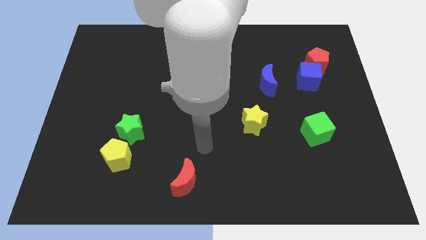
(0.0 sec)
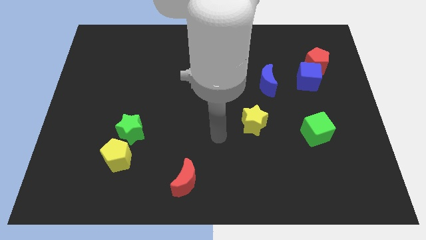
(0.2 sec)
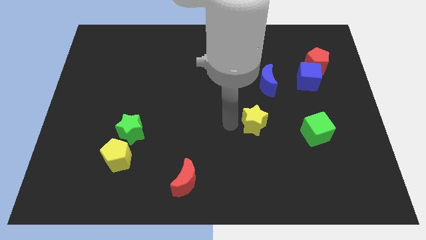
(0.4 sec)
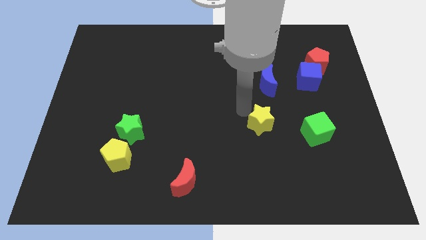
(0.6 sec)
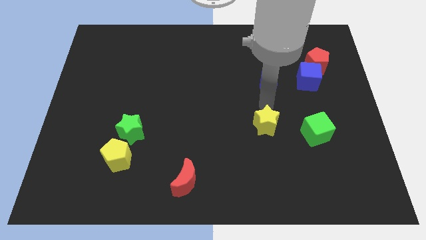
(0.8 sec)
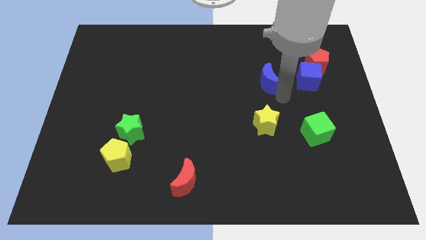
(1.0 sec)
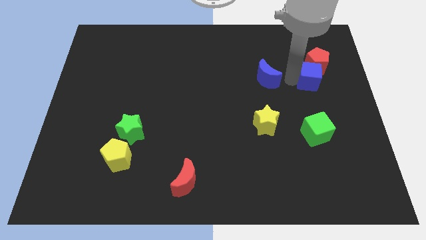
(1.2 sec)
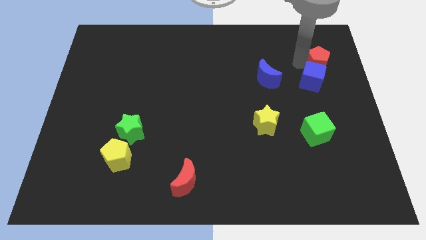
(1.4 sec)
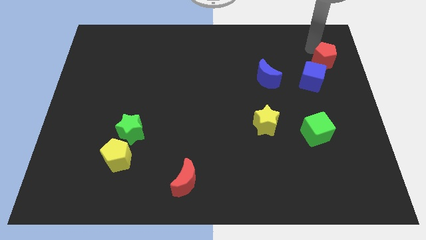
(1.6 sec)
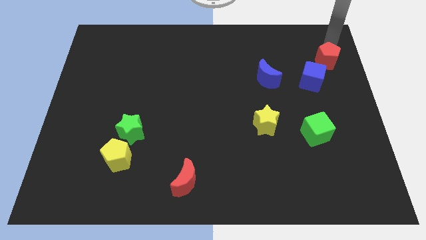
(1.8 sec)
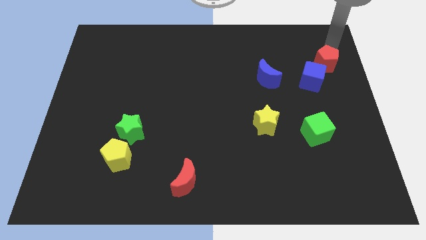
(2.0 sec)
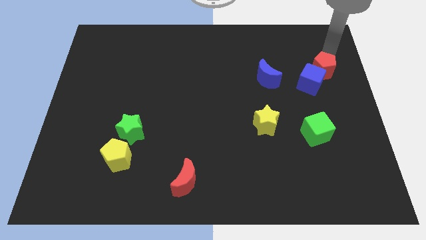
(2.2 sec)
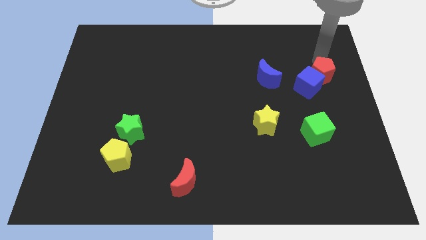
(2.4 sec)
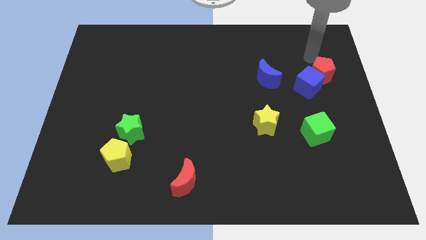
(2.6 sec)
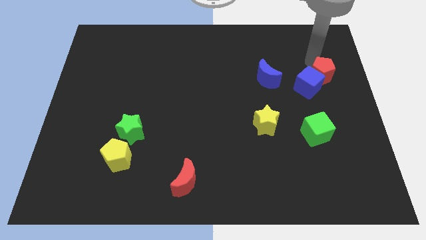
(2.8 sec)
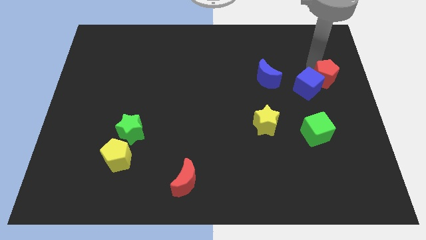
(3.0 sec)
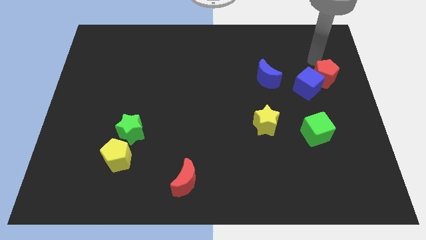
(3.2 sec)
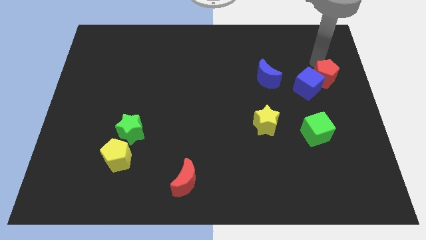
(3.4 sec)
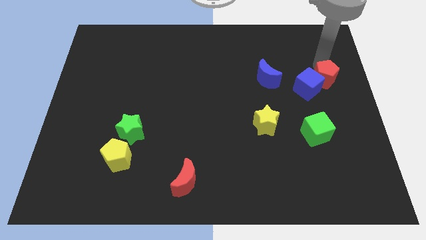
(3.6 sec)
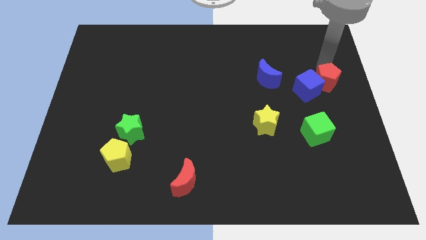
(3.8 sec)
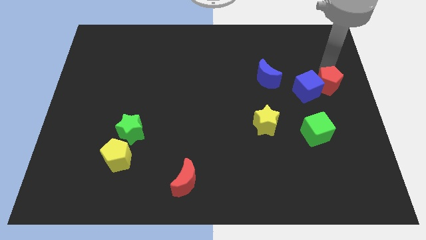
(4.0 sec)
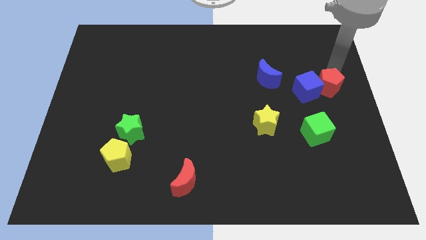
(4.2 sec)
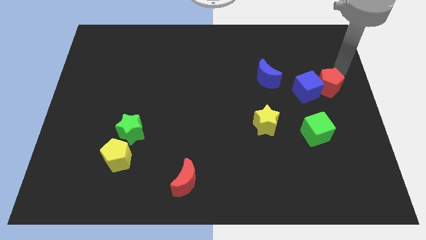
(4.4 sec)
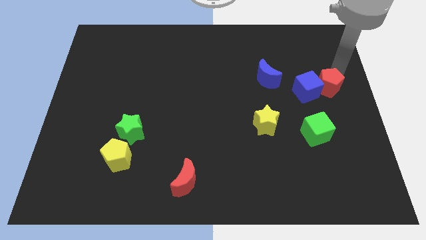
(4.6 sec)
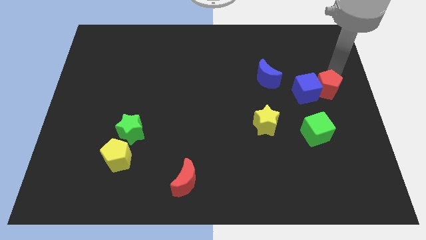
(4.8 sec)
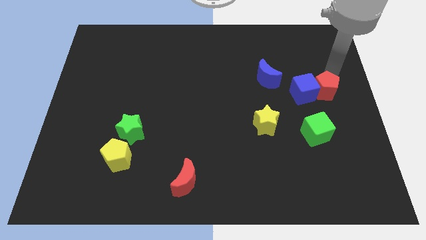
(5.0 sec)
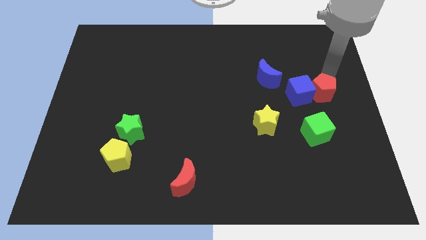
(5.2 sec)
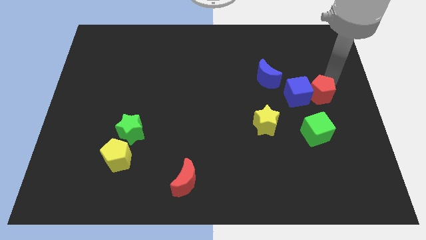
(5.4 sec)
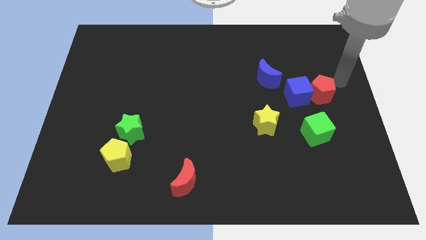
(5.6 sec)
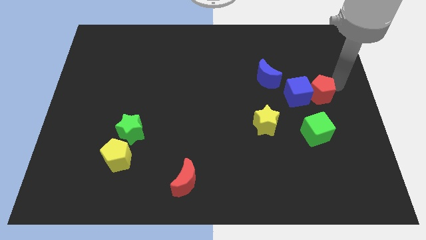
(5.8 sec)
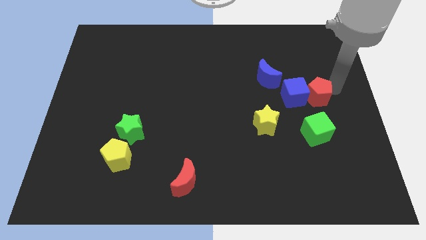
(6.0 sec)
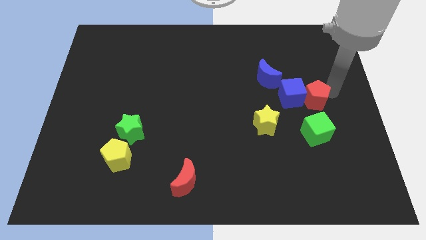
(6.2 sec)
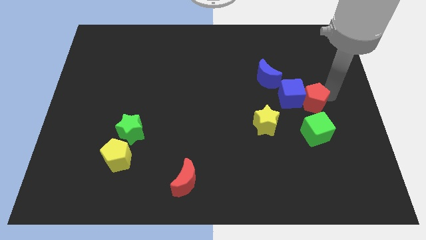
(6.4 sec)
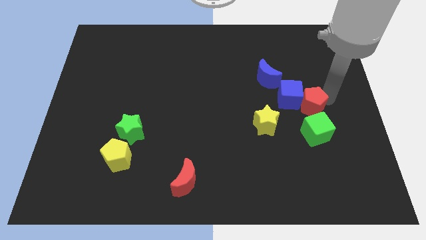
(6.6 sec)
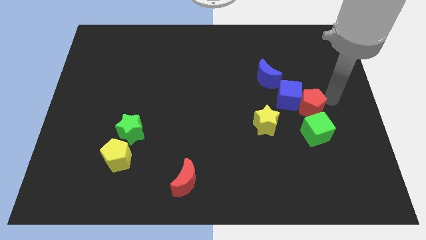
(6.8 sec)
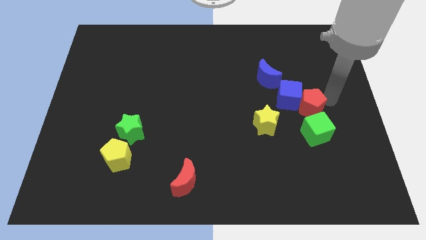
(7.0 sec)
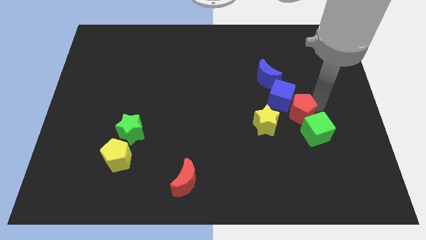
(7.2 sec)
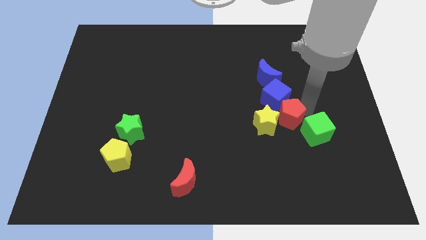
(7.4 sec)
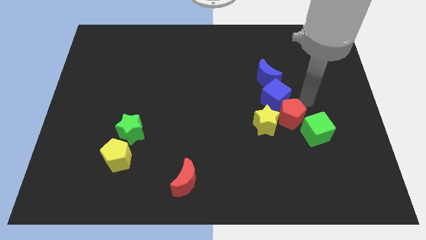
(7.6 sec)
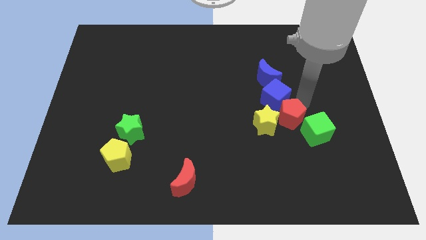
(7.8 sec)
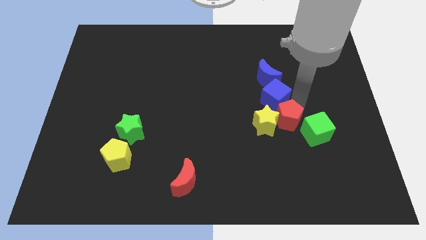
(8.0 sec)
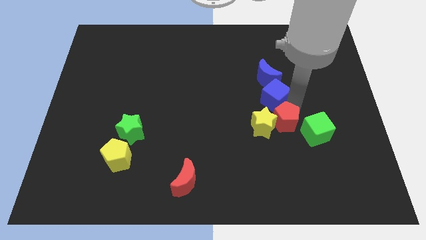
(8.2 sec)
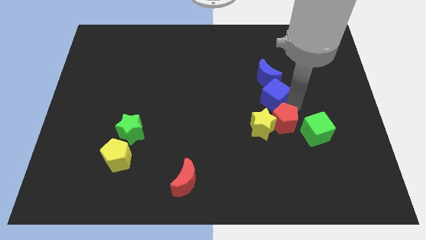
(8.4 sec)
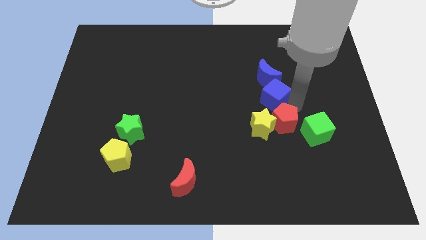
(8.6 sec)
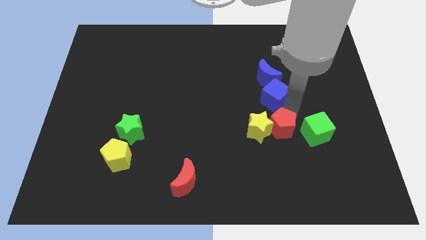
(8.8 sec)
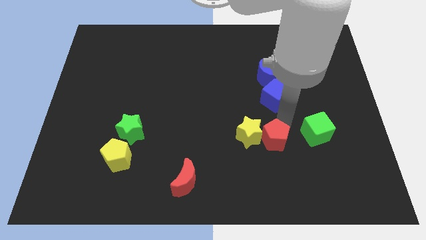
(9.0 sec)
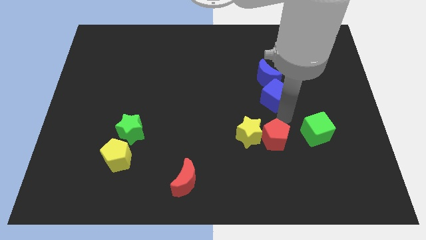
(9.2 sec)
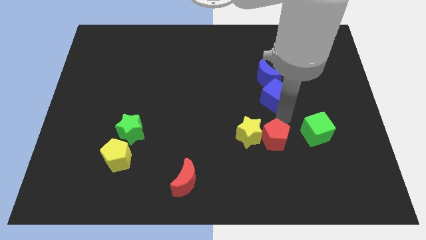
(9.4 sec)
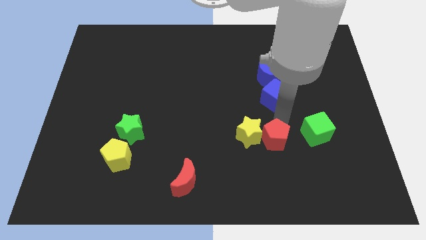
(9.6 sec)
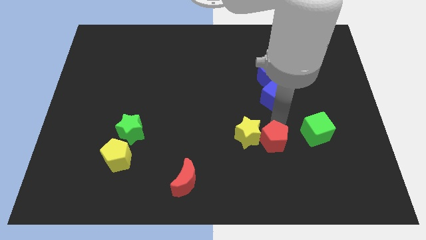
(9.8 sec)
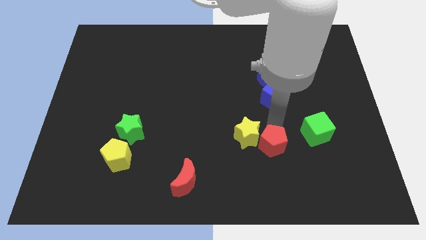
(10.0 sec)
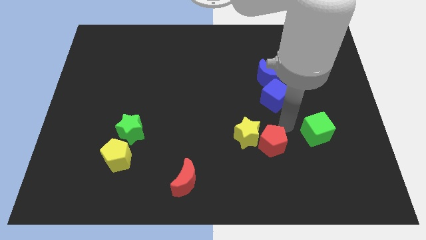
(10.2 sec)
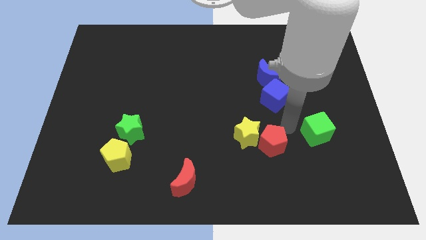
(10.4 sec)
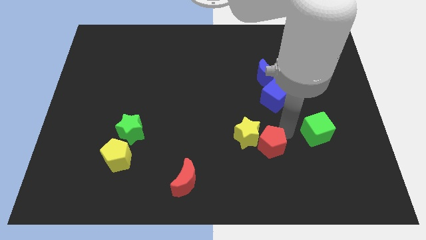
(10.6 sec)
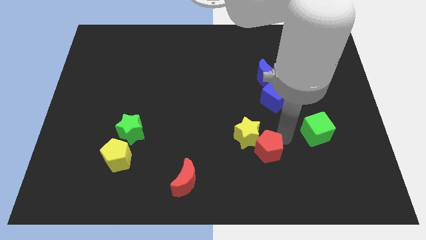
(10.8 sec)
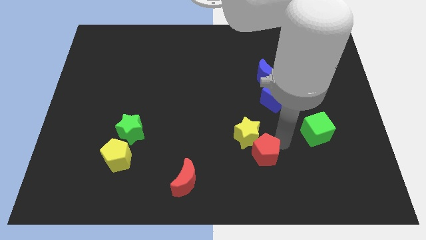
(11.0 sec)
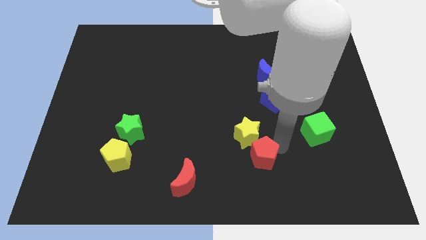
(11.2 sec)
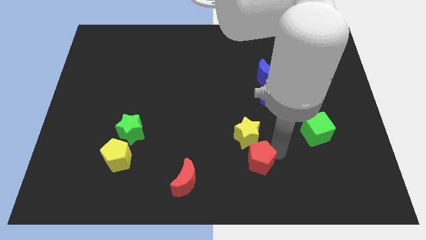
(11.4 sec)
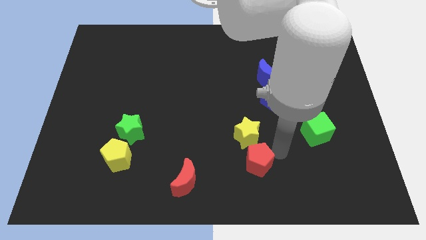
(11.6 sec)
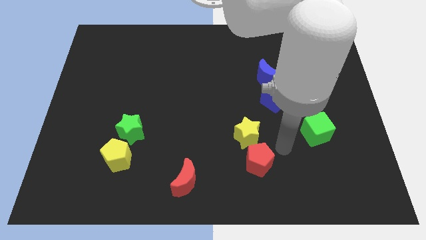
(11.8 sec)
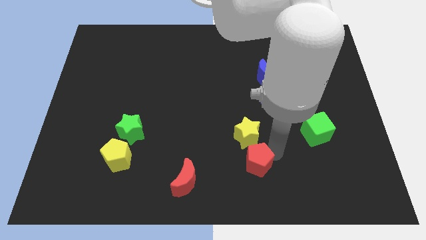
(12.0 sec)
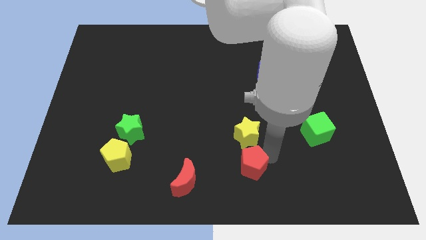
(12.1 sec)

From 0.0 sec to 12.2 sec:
push the red pentagon to the bottom

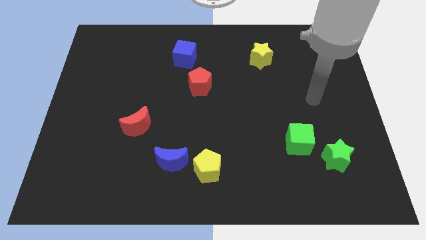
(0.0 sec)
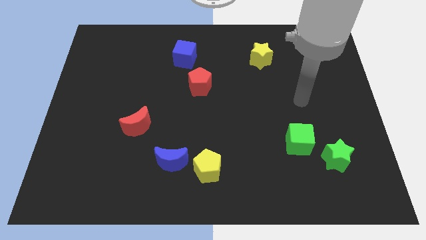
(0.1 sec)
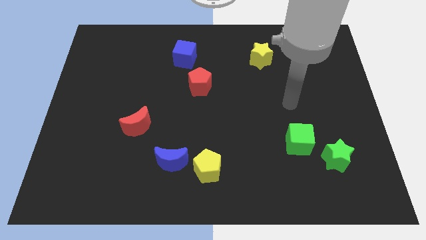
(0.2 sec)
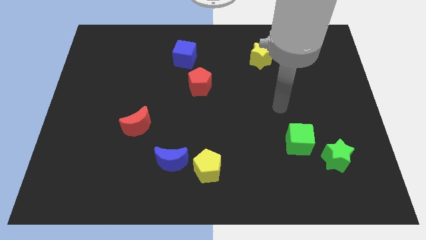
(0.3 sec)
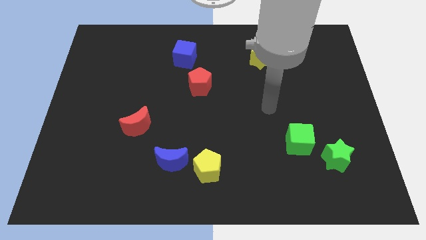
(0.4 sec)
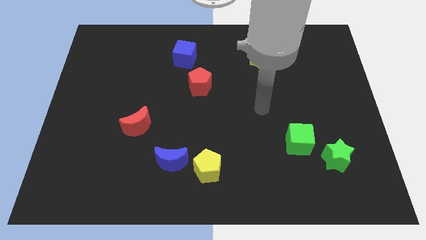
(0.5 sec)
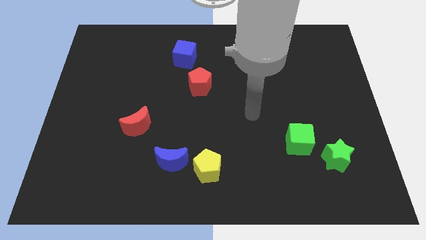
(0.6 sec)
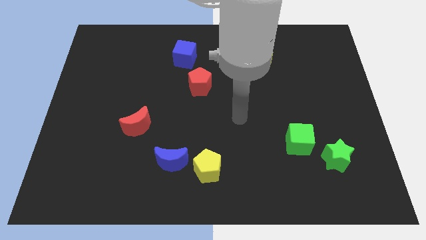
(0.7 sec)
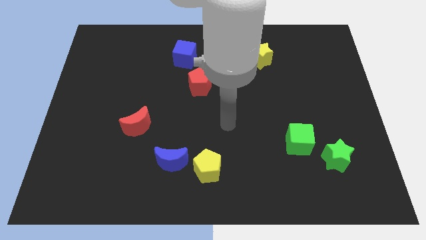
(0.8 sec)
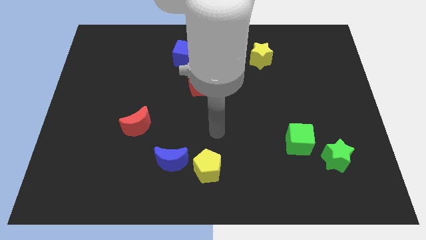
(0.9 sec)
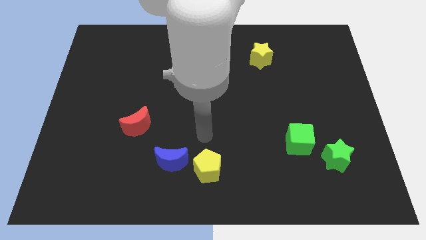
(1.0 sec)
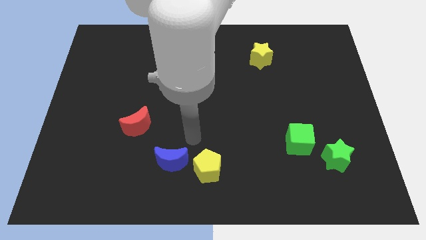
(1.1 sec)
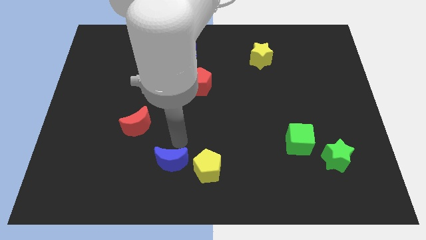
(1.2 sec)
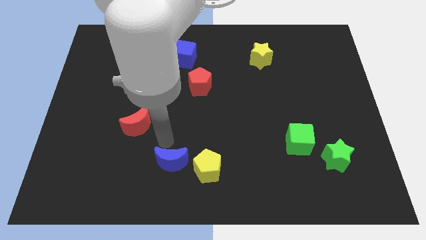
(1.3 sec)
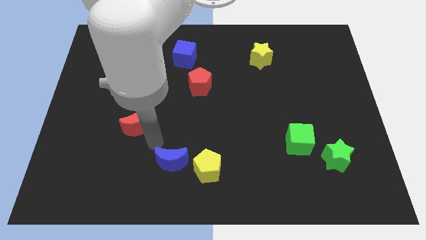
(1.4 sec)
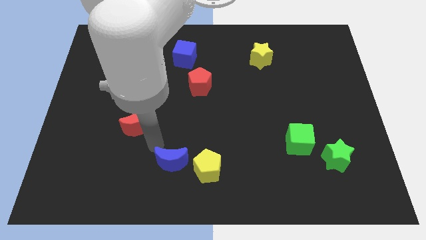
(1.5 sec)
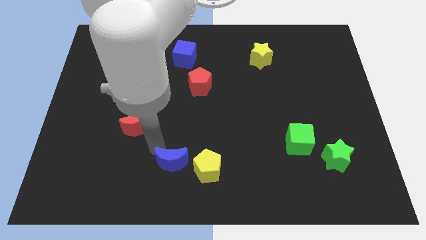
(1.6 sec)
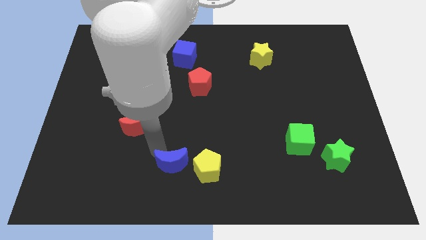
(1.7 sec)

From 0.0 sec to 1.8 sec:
slide the blue moon to the bottom
